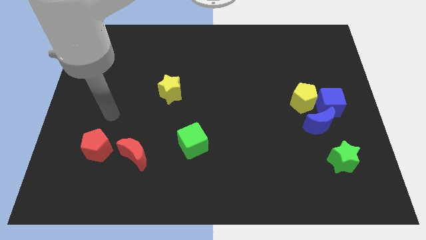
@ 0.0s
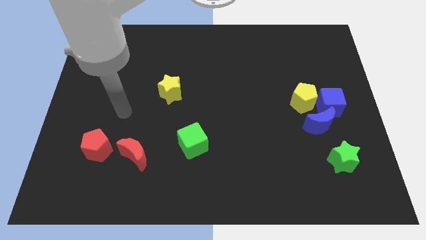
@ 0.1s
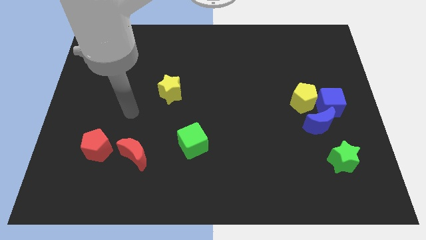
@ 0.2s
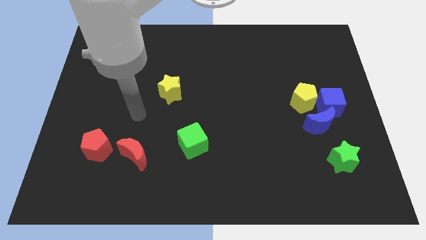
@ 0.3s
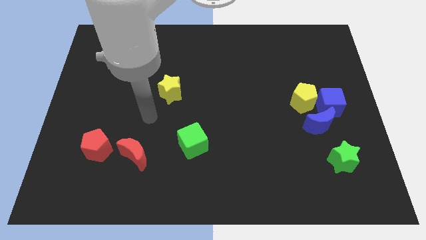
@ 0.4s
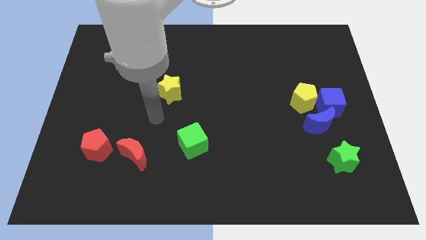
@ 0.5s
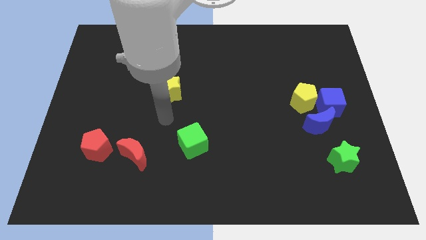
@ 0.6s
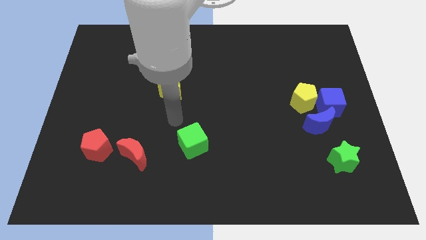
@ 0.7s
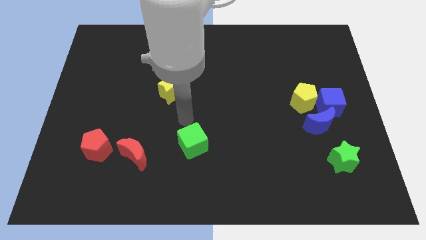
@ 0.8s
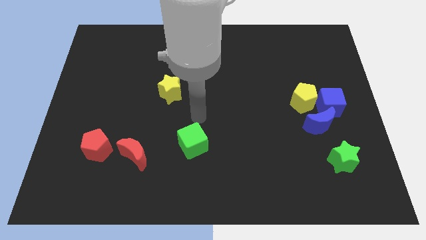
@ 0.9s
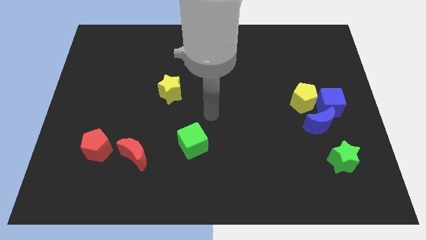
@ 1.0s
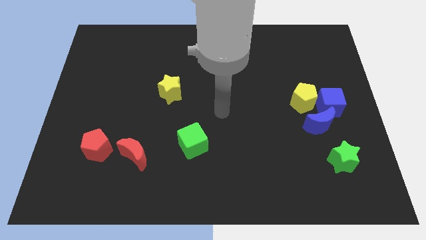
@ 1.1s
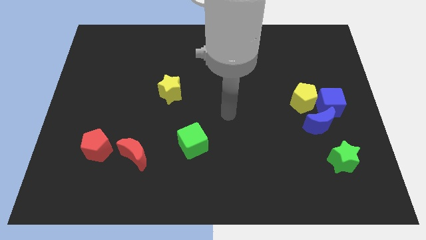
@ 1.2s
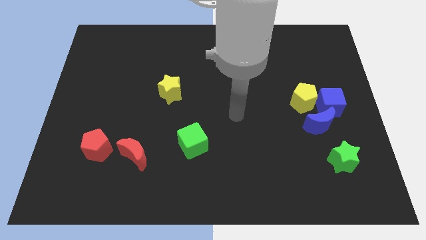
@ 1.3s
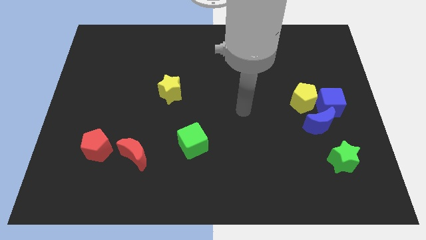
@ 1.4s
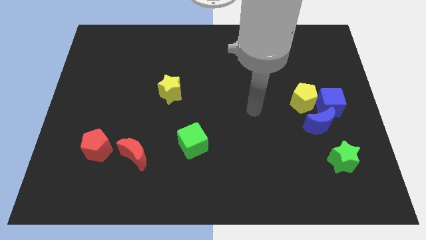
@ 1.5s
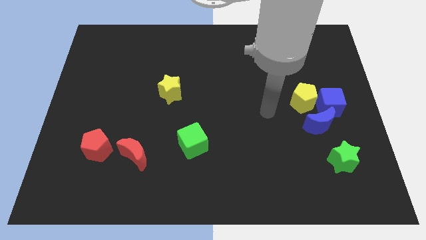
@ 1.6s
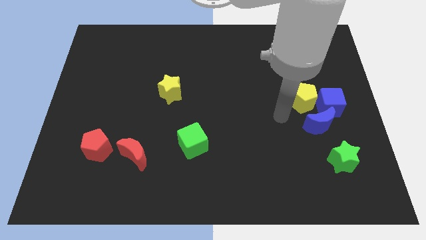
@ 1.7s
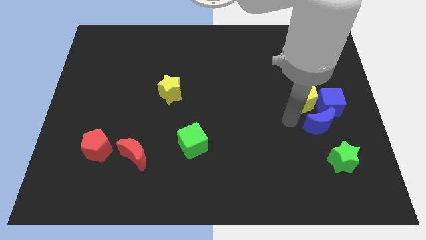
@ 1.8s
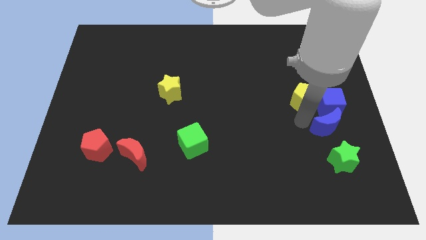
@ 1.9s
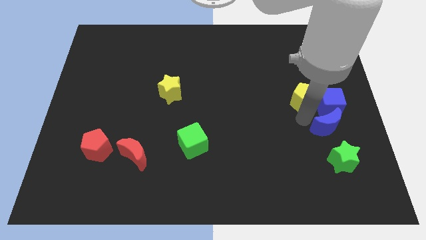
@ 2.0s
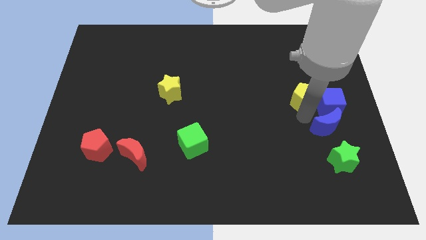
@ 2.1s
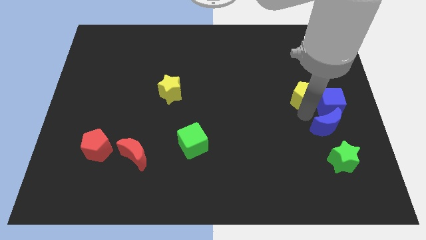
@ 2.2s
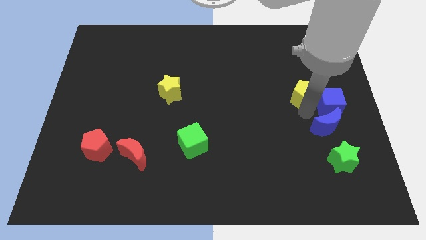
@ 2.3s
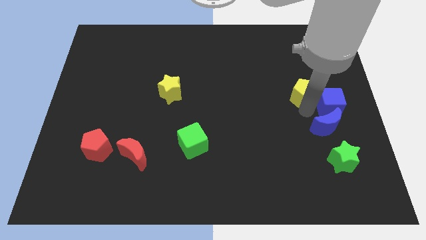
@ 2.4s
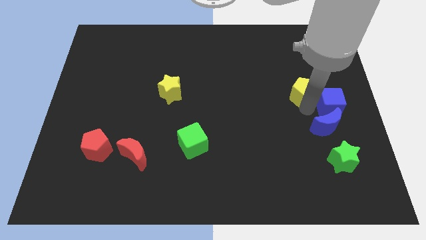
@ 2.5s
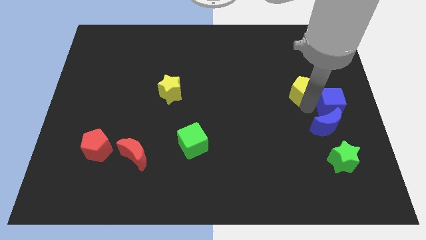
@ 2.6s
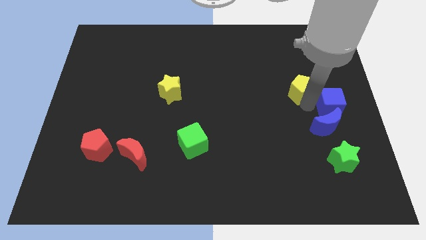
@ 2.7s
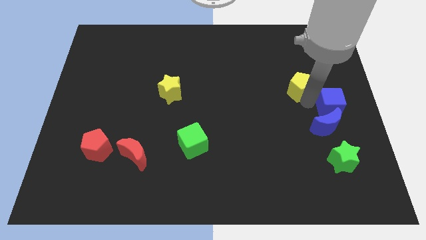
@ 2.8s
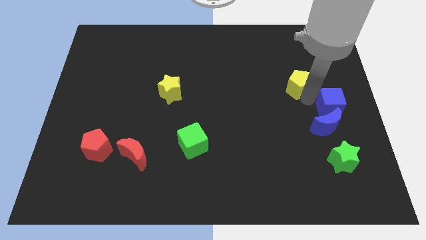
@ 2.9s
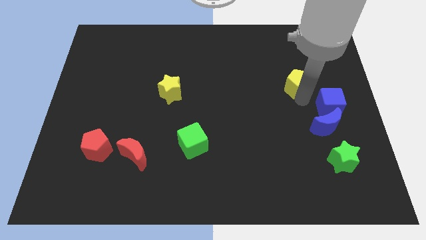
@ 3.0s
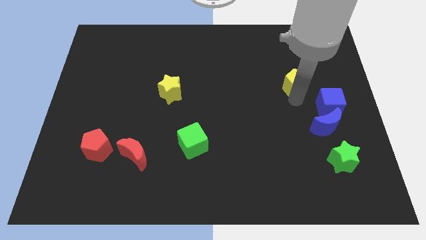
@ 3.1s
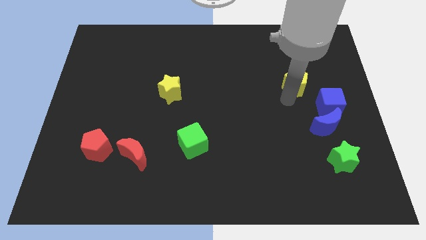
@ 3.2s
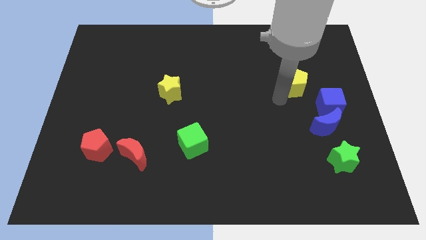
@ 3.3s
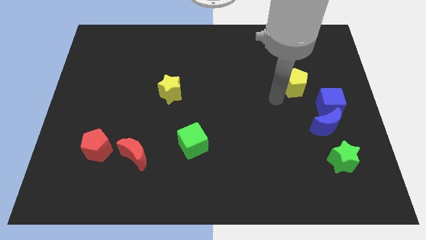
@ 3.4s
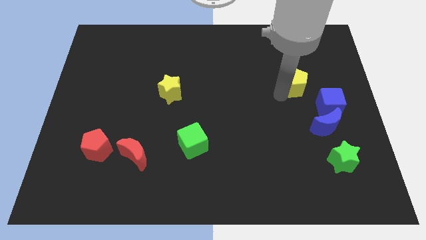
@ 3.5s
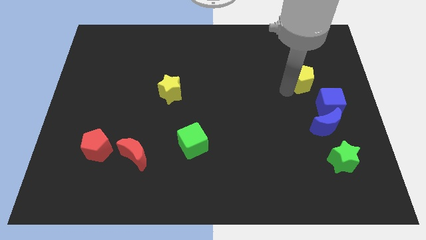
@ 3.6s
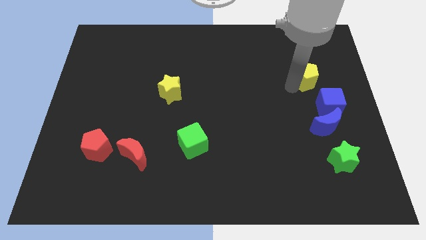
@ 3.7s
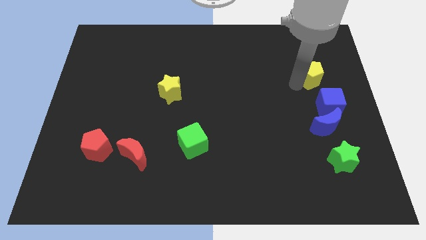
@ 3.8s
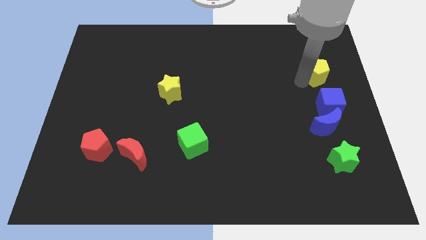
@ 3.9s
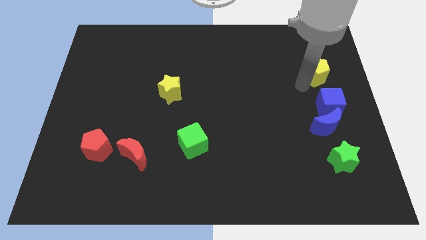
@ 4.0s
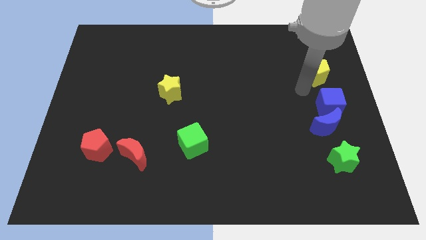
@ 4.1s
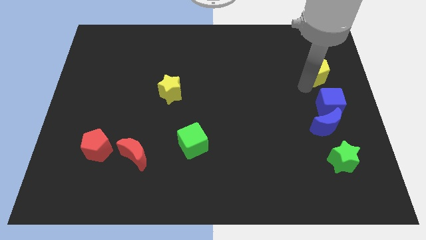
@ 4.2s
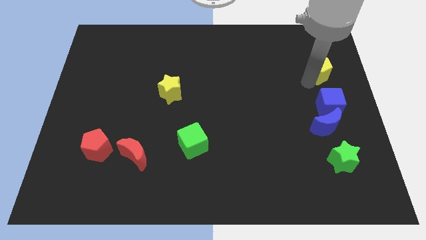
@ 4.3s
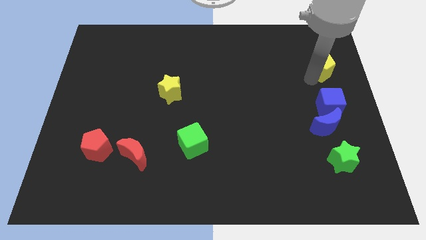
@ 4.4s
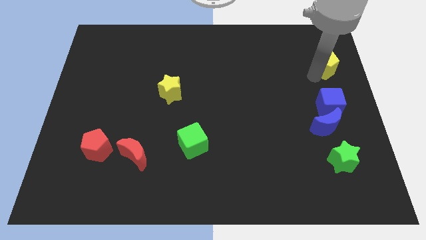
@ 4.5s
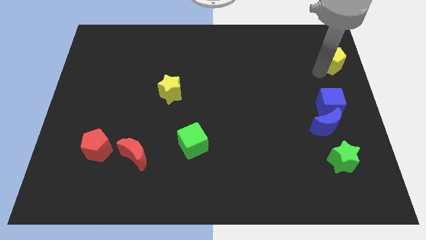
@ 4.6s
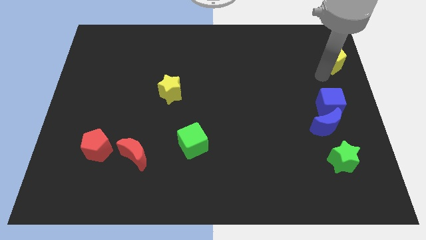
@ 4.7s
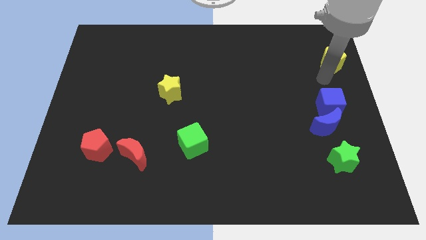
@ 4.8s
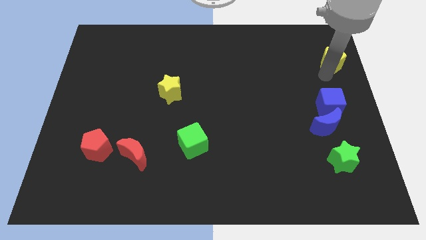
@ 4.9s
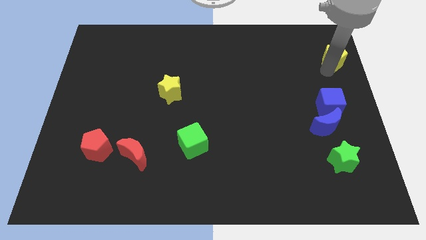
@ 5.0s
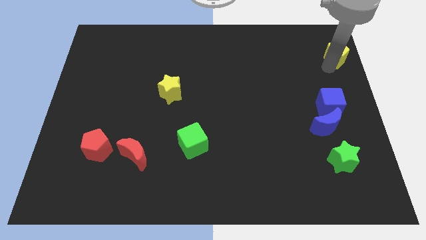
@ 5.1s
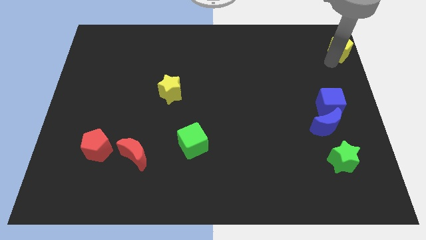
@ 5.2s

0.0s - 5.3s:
move the yellow pentagon to the top right corner

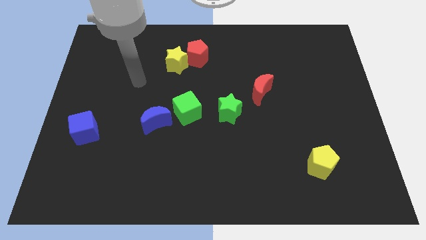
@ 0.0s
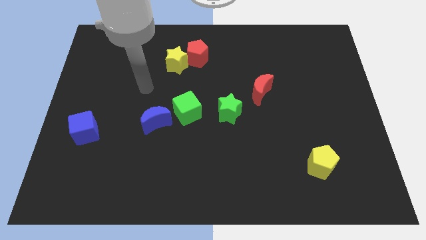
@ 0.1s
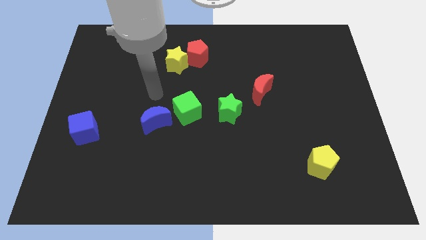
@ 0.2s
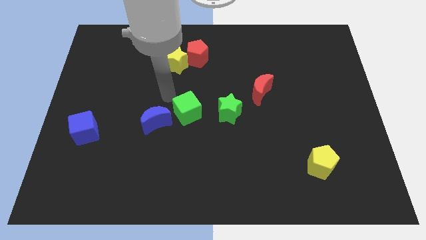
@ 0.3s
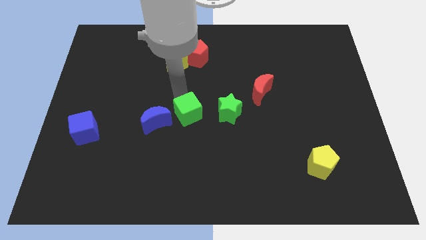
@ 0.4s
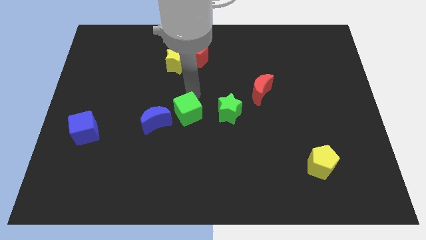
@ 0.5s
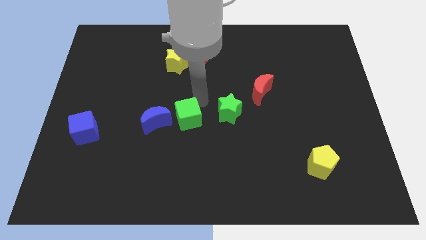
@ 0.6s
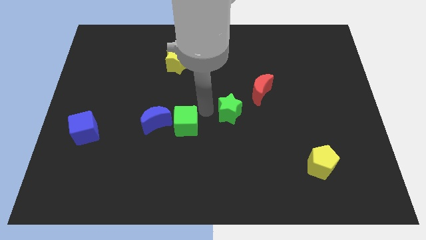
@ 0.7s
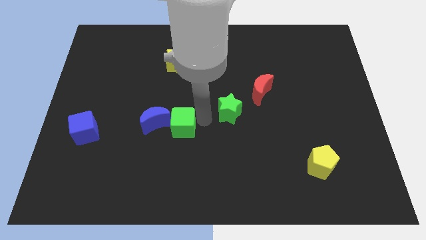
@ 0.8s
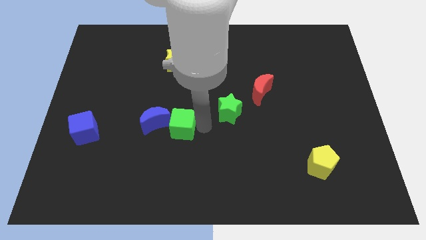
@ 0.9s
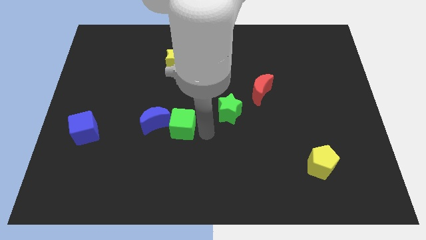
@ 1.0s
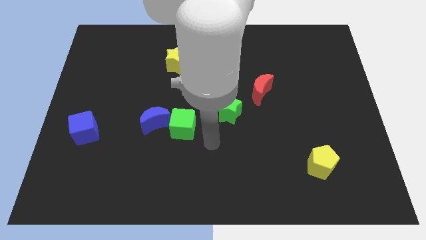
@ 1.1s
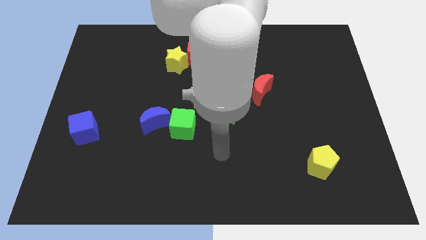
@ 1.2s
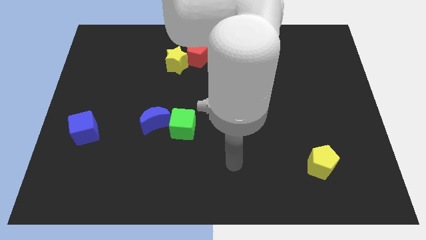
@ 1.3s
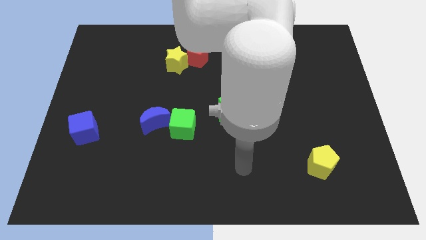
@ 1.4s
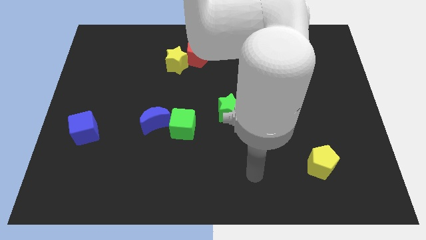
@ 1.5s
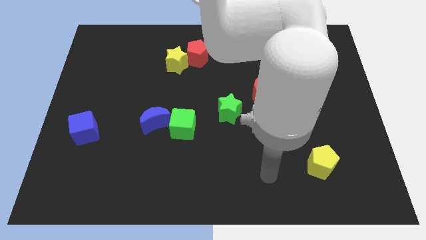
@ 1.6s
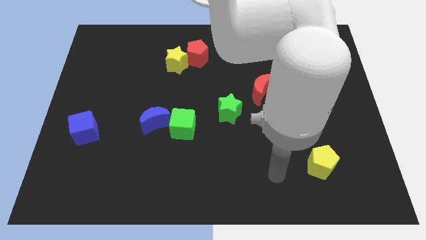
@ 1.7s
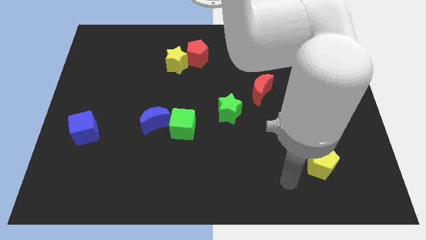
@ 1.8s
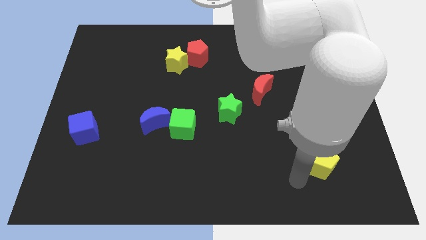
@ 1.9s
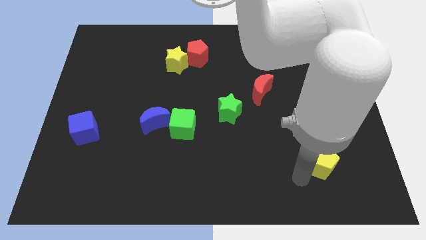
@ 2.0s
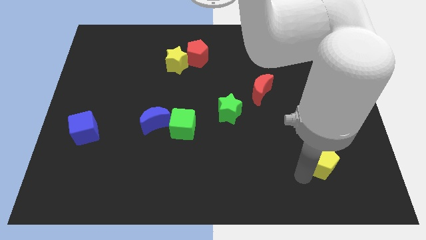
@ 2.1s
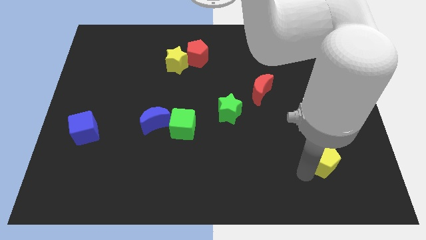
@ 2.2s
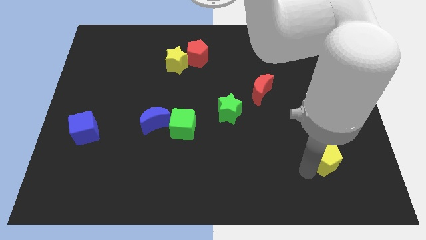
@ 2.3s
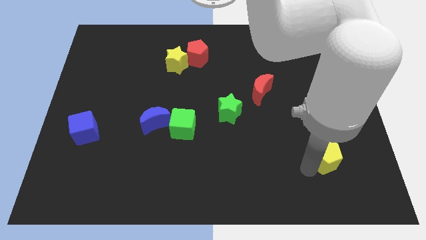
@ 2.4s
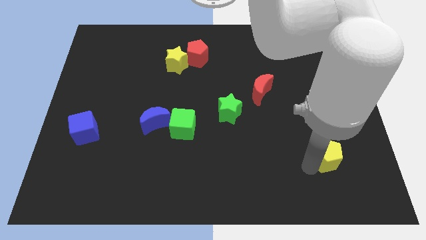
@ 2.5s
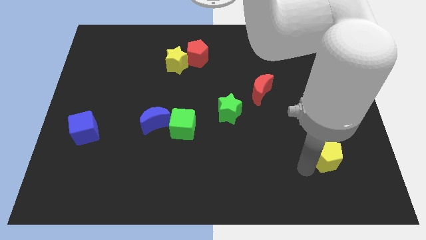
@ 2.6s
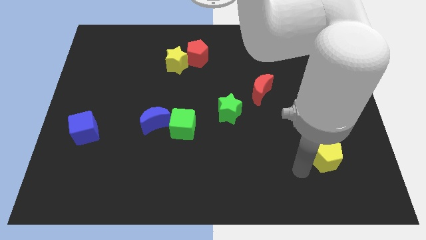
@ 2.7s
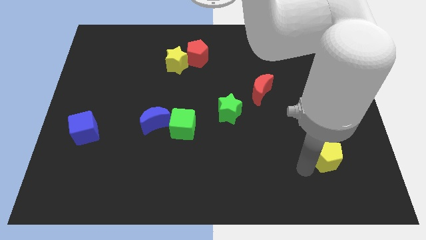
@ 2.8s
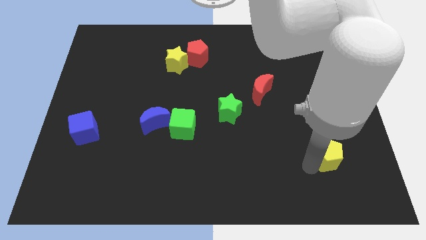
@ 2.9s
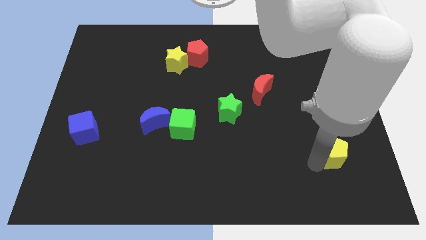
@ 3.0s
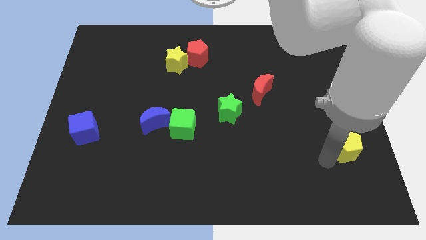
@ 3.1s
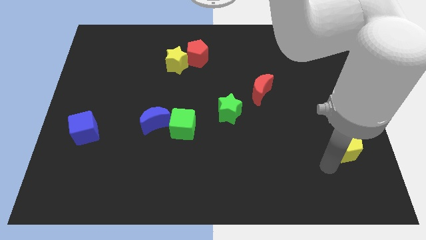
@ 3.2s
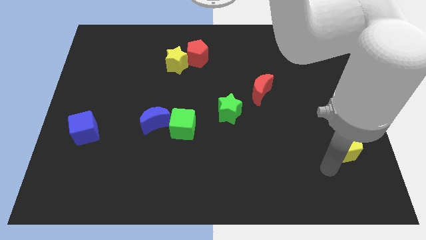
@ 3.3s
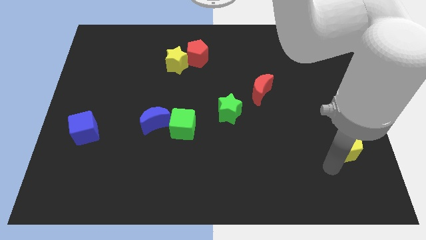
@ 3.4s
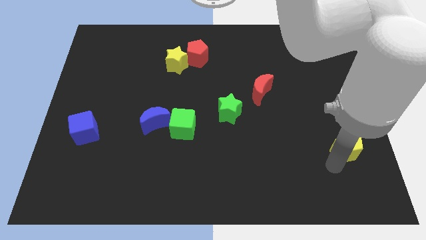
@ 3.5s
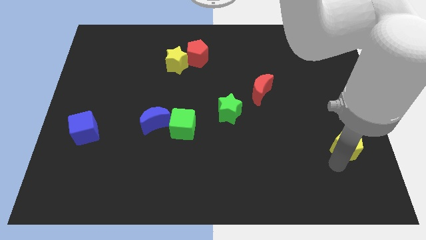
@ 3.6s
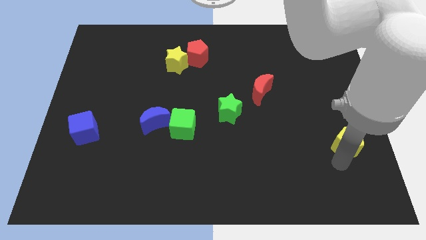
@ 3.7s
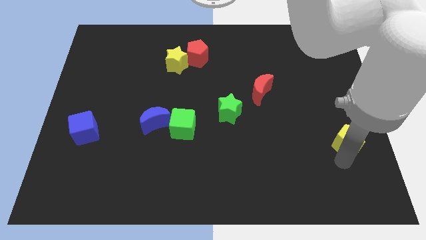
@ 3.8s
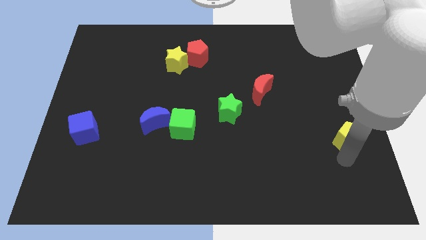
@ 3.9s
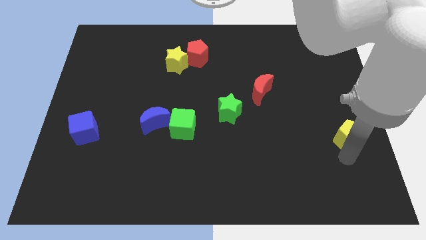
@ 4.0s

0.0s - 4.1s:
push the yellow pentagon to the center right
